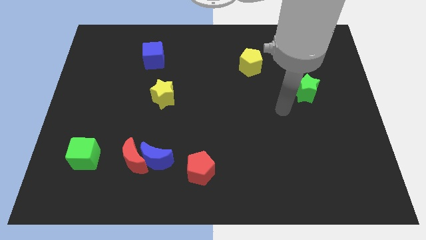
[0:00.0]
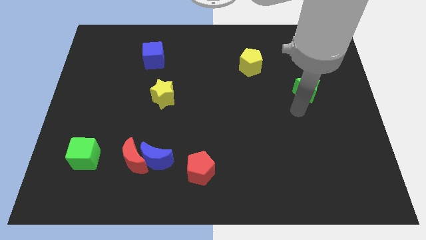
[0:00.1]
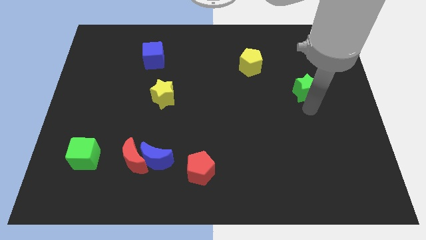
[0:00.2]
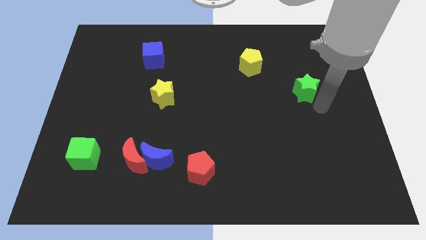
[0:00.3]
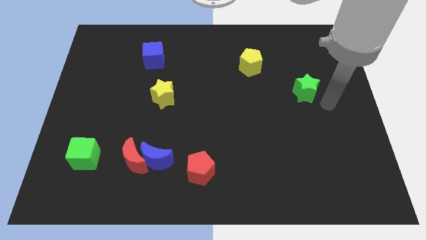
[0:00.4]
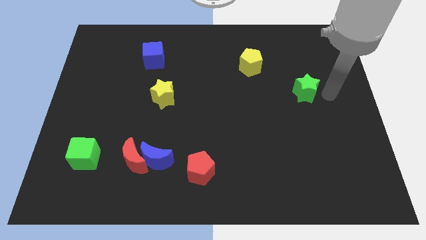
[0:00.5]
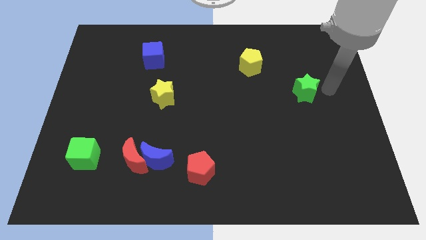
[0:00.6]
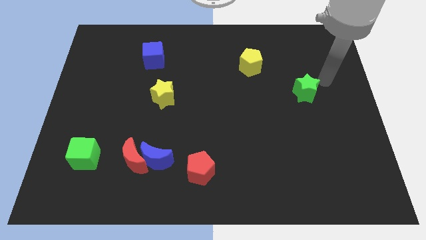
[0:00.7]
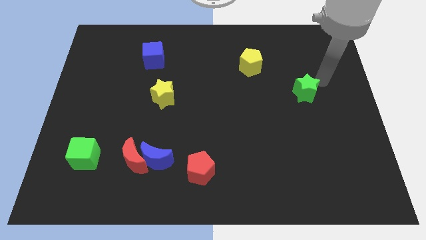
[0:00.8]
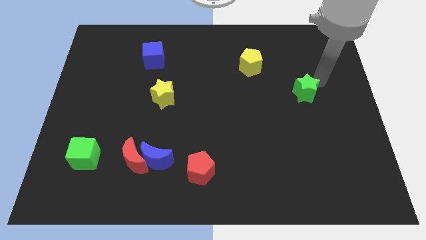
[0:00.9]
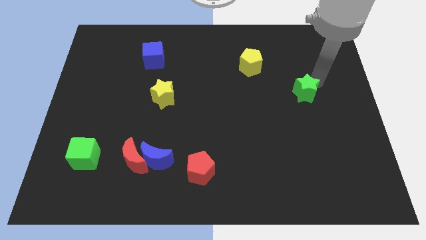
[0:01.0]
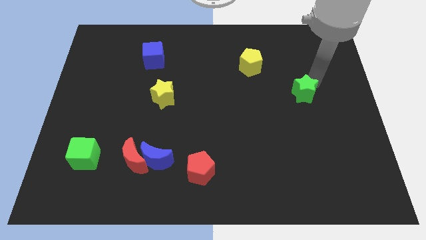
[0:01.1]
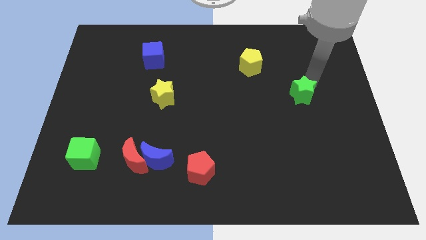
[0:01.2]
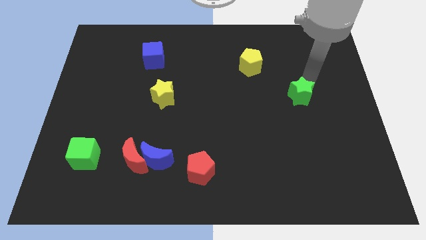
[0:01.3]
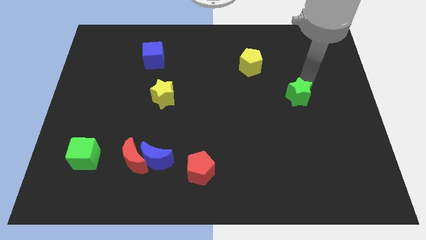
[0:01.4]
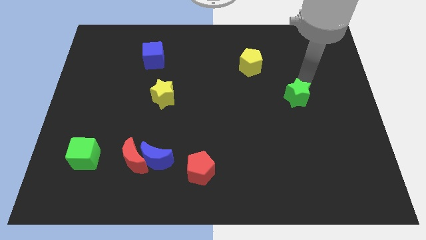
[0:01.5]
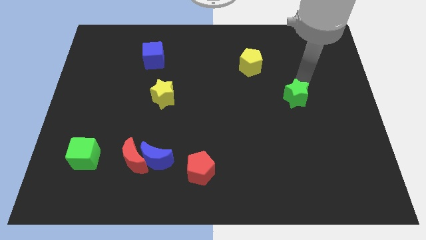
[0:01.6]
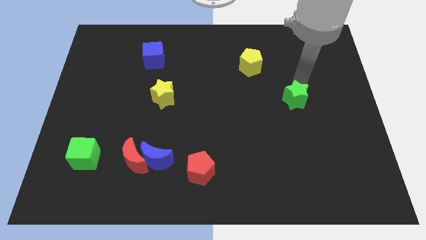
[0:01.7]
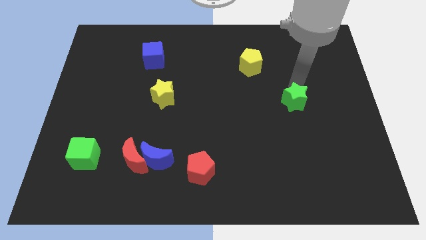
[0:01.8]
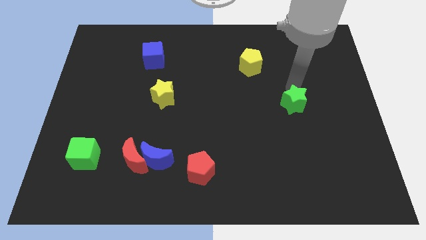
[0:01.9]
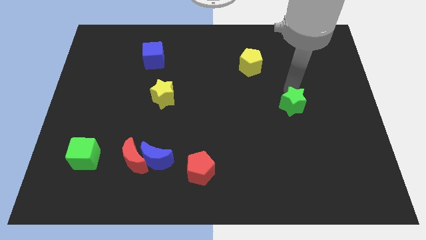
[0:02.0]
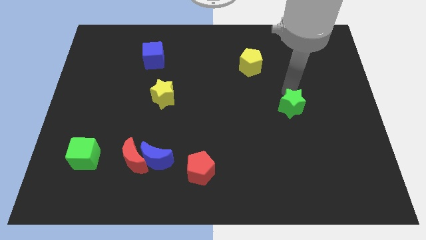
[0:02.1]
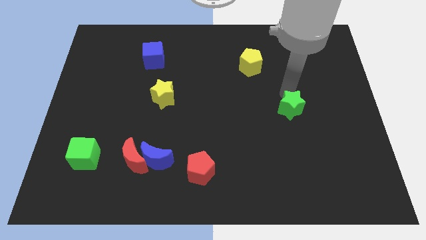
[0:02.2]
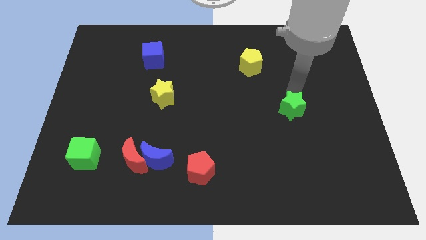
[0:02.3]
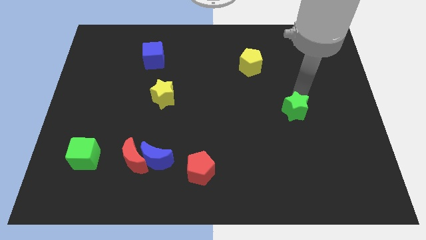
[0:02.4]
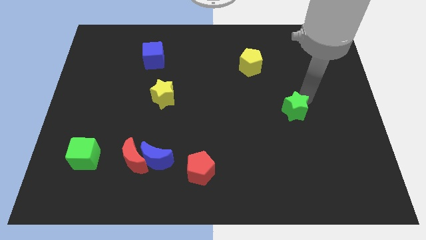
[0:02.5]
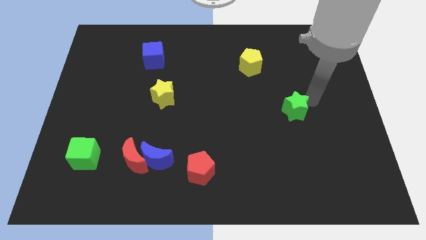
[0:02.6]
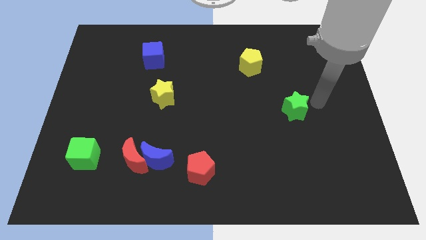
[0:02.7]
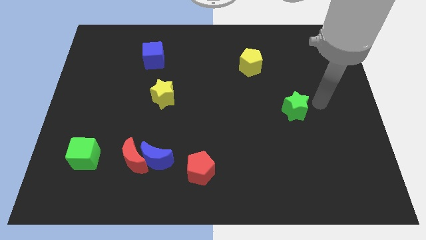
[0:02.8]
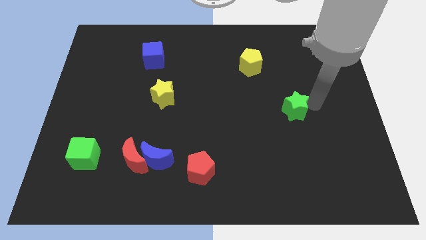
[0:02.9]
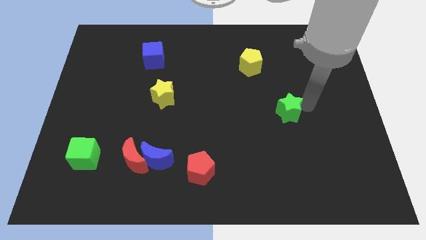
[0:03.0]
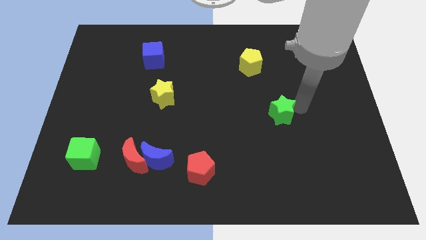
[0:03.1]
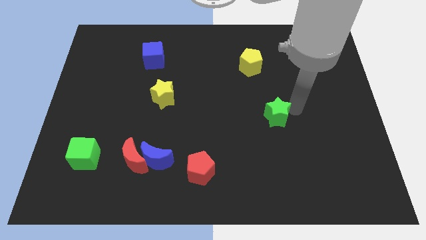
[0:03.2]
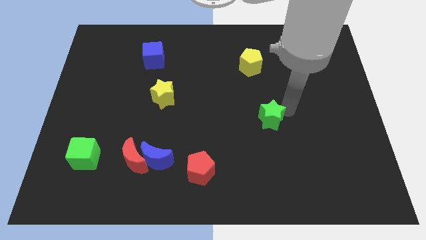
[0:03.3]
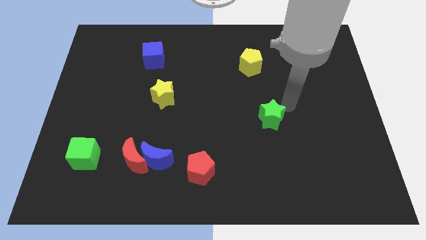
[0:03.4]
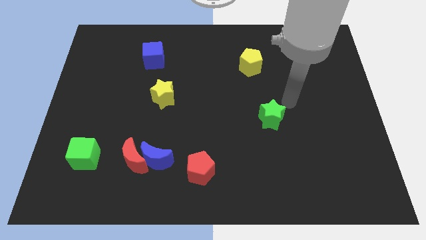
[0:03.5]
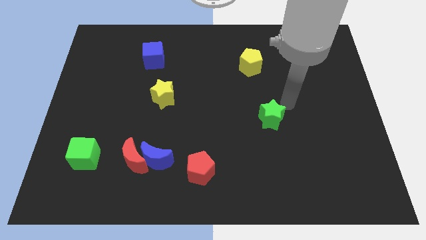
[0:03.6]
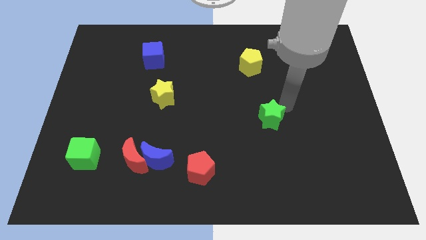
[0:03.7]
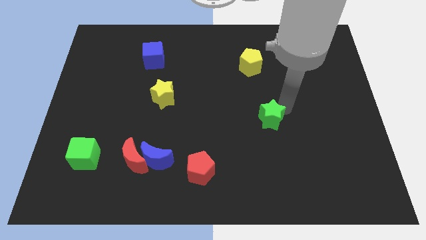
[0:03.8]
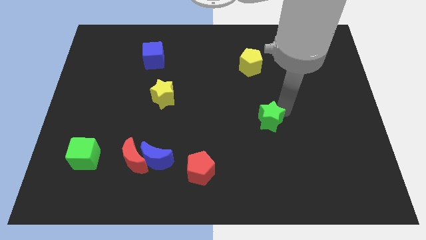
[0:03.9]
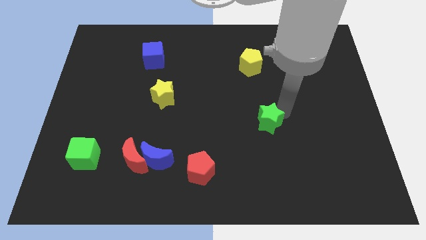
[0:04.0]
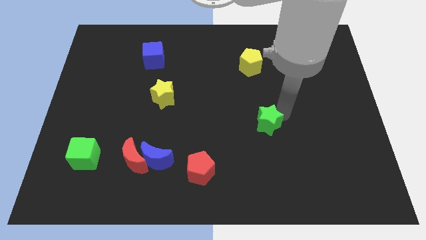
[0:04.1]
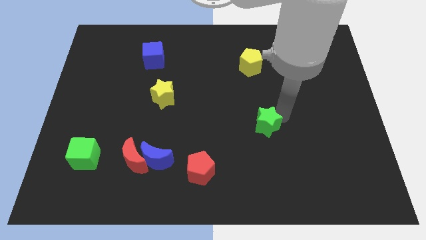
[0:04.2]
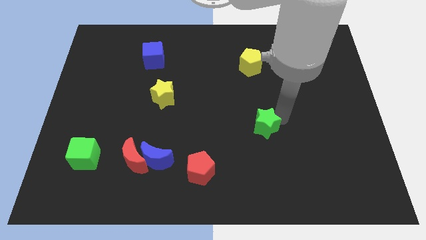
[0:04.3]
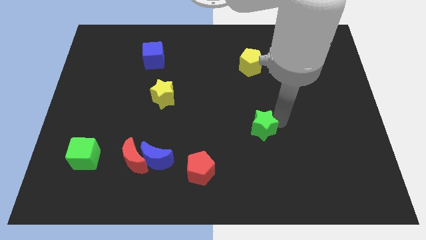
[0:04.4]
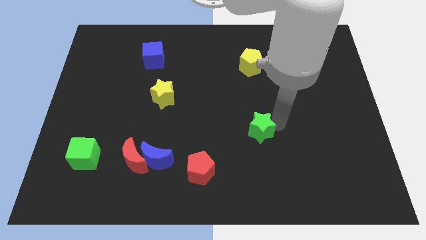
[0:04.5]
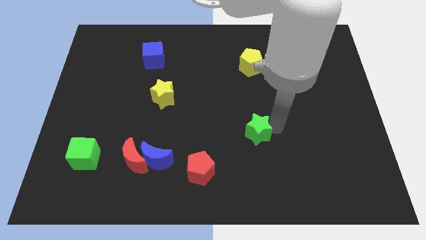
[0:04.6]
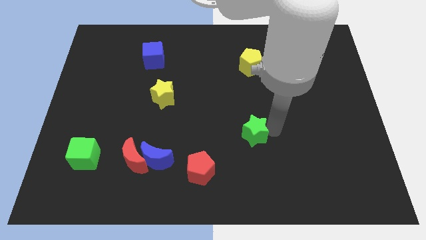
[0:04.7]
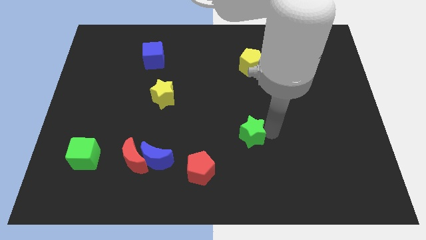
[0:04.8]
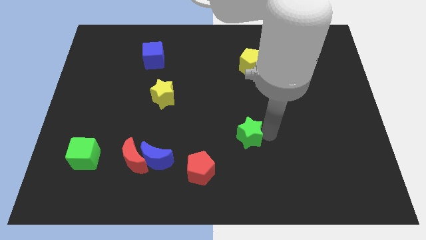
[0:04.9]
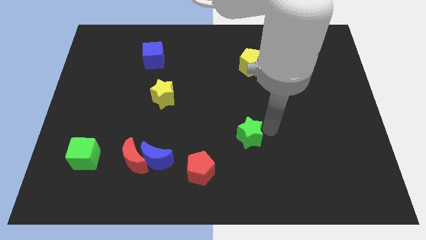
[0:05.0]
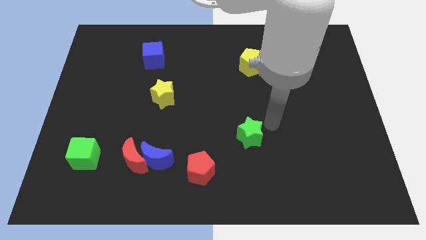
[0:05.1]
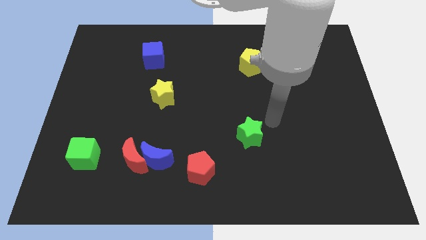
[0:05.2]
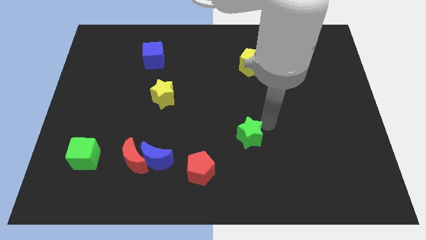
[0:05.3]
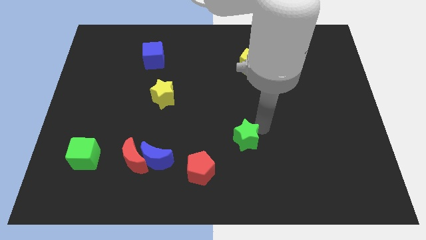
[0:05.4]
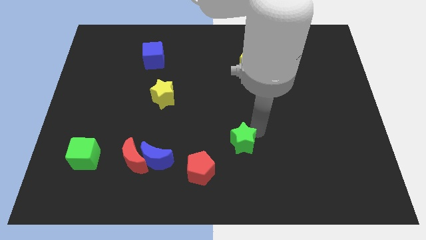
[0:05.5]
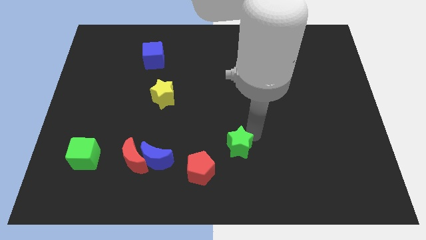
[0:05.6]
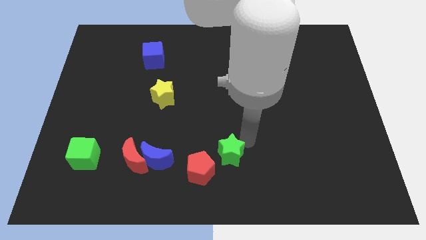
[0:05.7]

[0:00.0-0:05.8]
put the green star right of the blue moon

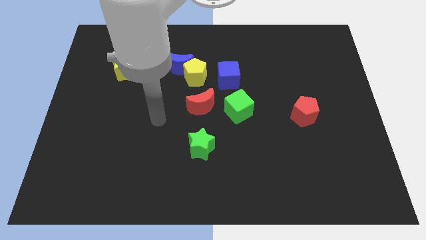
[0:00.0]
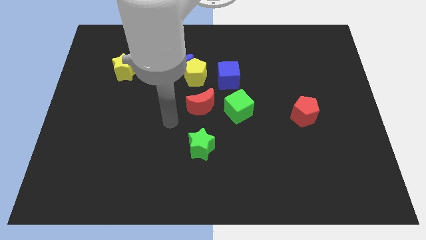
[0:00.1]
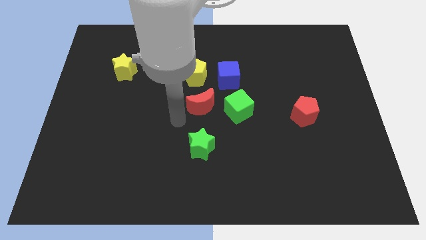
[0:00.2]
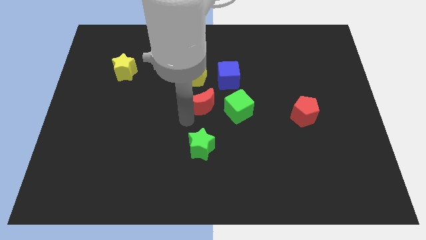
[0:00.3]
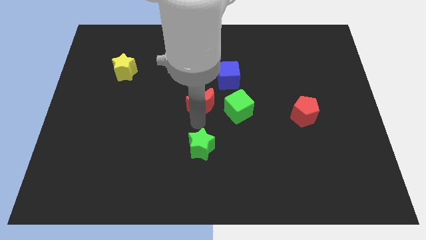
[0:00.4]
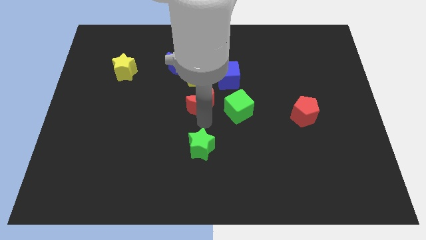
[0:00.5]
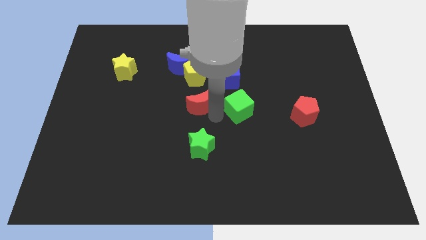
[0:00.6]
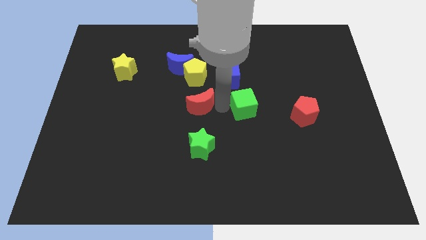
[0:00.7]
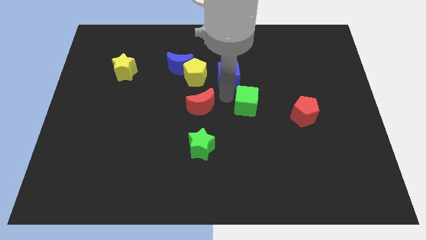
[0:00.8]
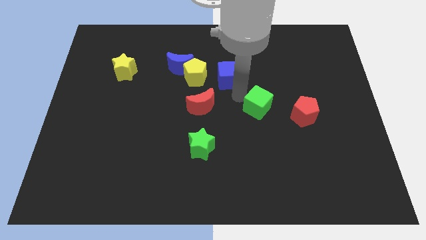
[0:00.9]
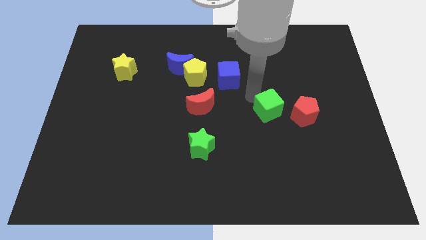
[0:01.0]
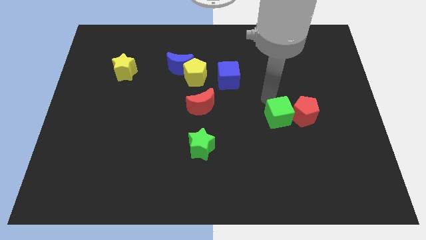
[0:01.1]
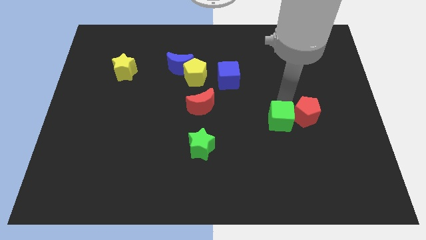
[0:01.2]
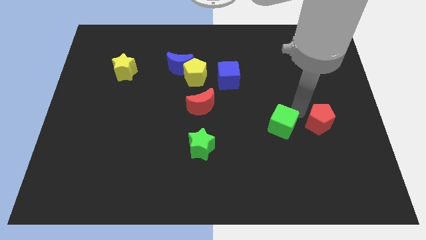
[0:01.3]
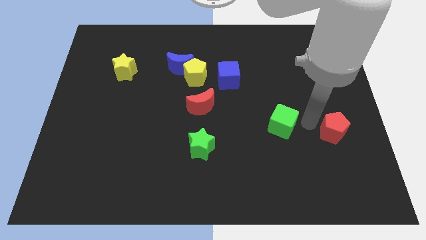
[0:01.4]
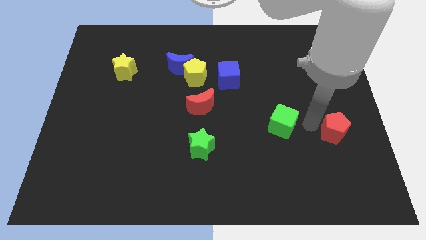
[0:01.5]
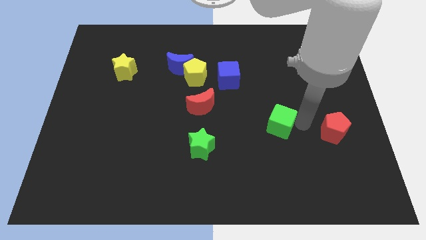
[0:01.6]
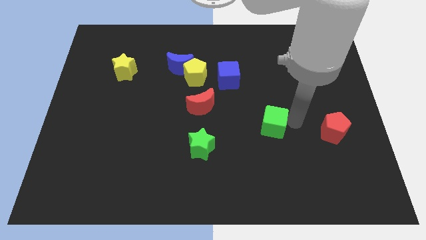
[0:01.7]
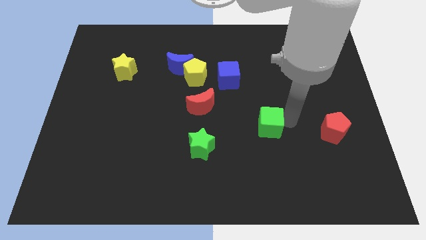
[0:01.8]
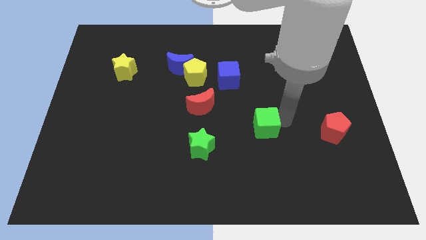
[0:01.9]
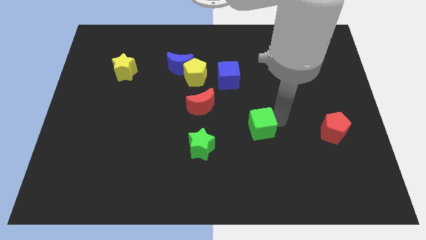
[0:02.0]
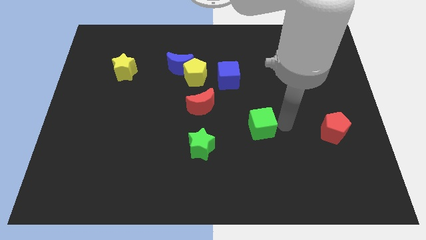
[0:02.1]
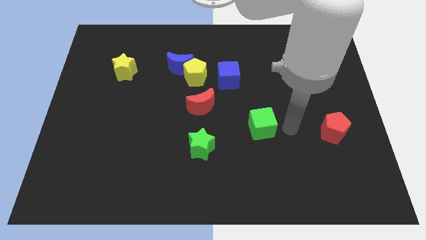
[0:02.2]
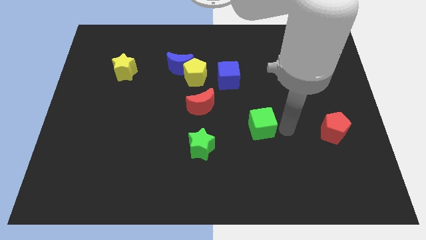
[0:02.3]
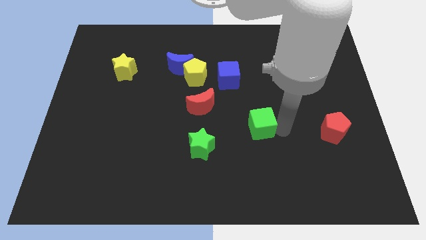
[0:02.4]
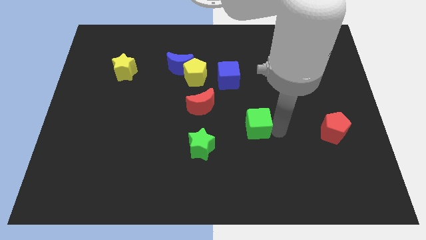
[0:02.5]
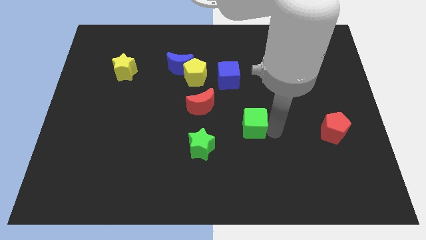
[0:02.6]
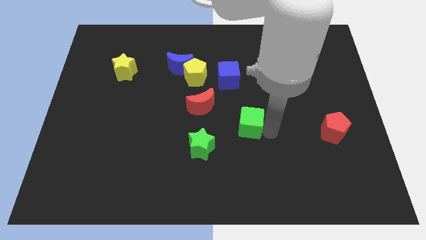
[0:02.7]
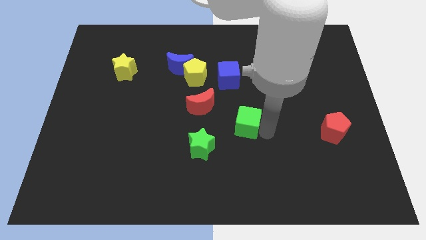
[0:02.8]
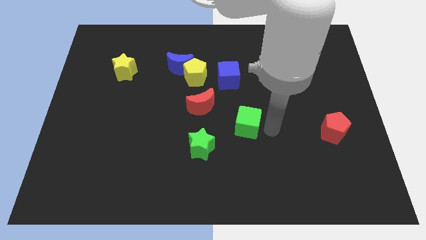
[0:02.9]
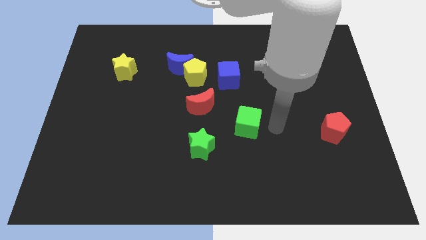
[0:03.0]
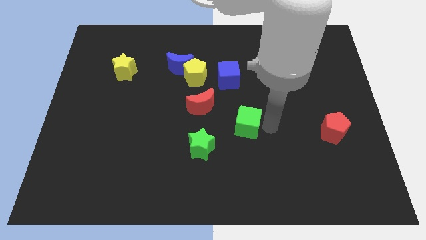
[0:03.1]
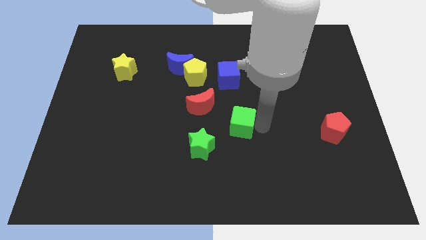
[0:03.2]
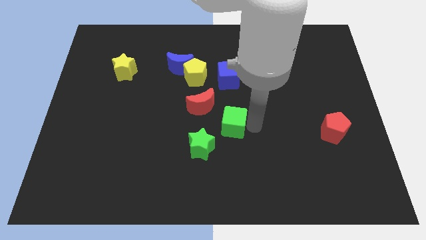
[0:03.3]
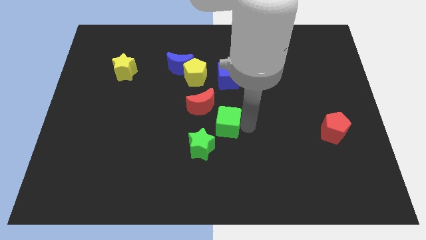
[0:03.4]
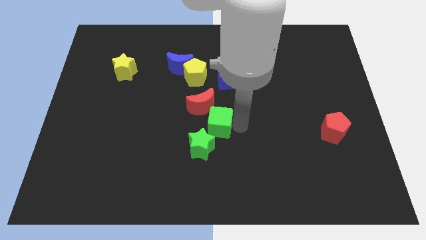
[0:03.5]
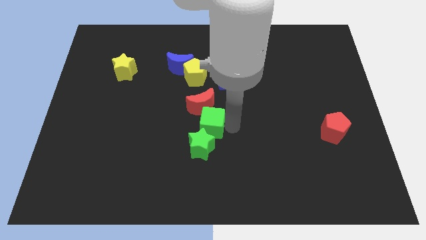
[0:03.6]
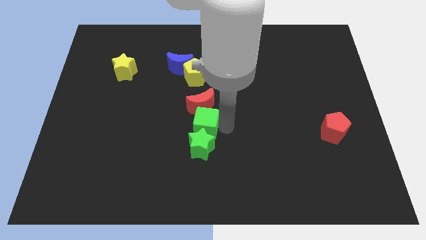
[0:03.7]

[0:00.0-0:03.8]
move the green cube diagonally down and to the left of the red moon
